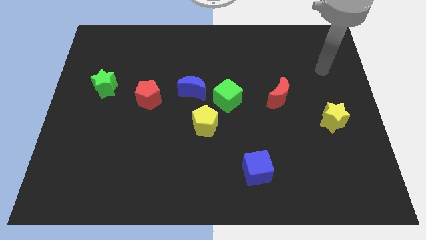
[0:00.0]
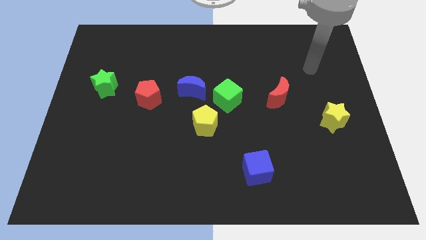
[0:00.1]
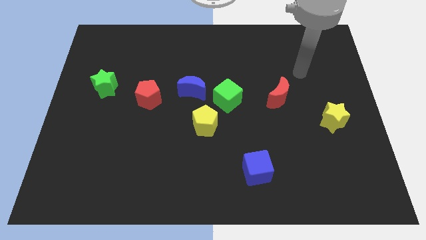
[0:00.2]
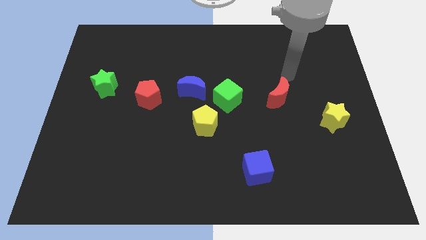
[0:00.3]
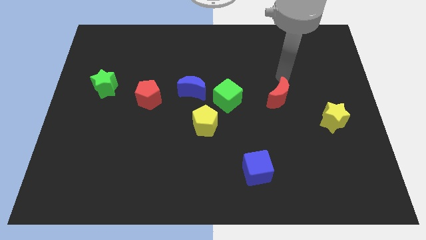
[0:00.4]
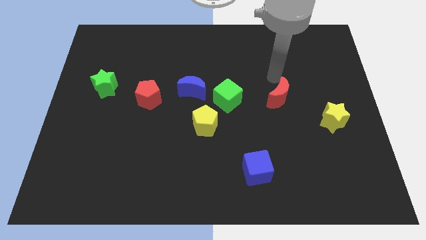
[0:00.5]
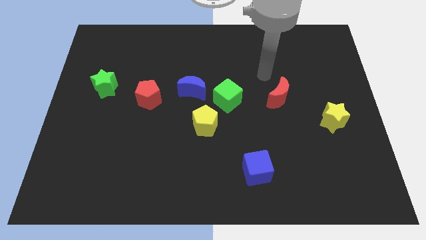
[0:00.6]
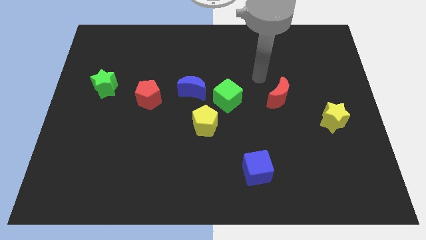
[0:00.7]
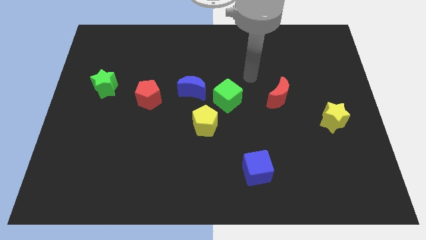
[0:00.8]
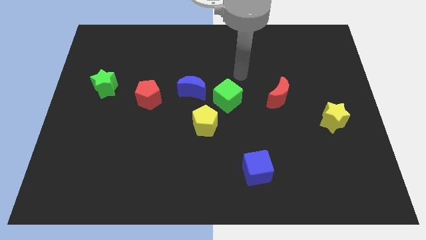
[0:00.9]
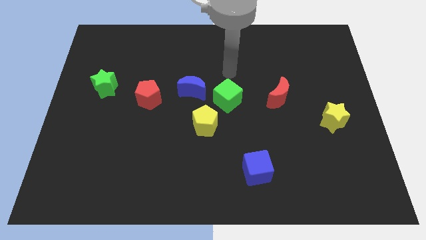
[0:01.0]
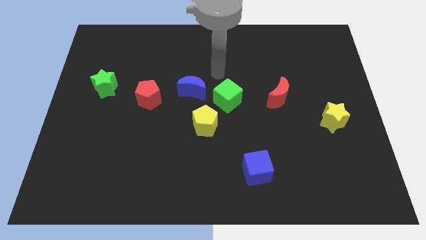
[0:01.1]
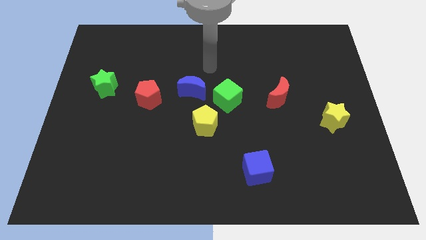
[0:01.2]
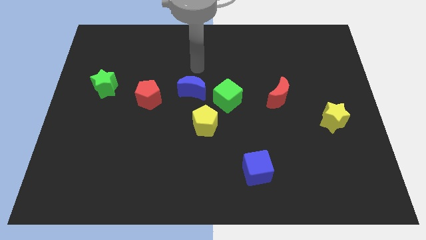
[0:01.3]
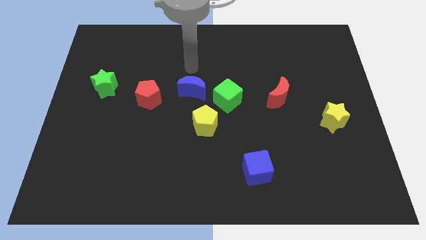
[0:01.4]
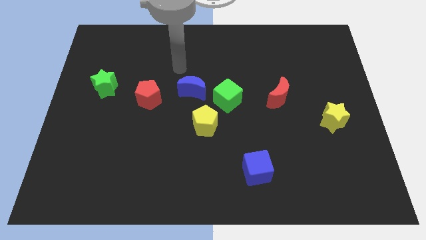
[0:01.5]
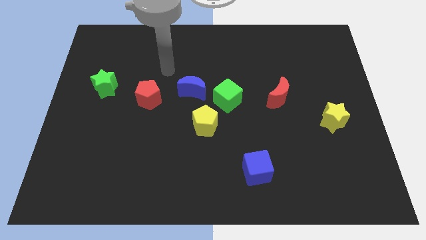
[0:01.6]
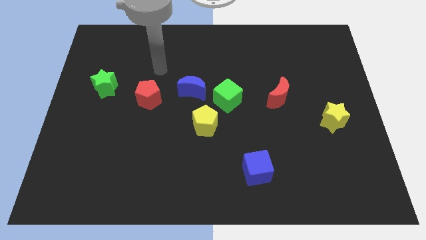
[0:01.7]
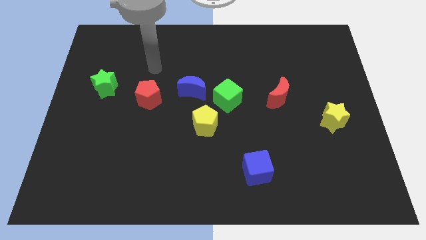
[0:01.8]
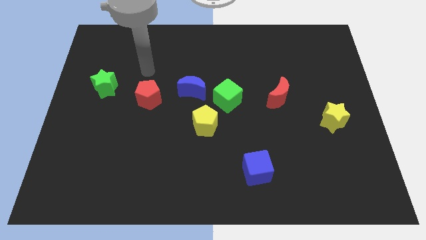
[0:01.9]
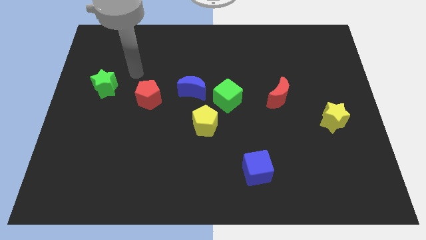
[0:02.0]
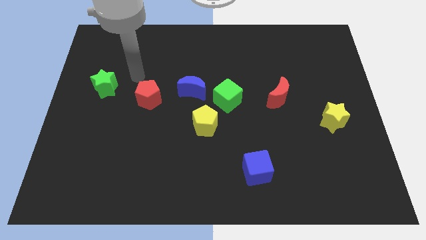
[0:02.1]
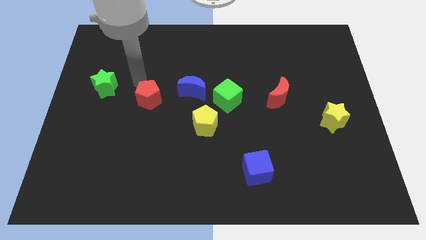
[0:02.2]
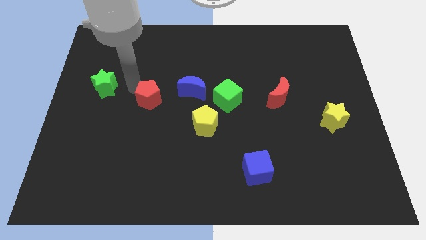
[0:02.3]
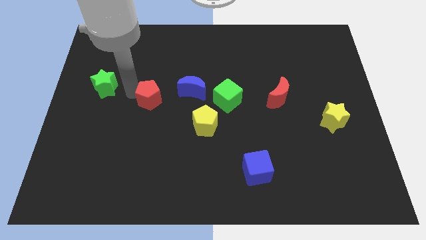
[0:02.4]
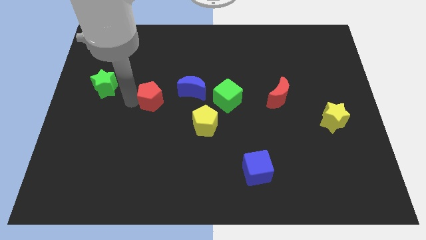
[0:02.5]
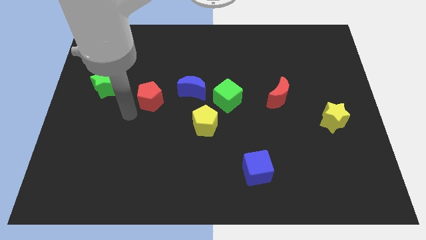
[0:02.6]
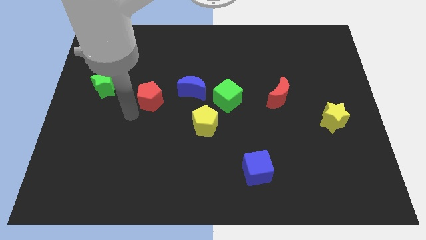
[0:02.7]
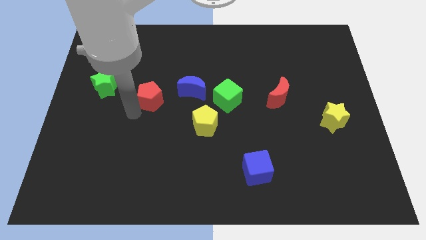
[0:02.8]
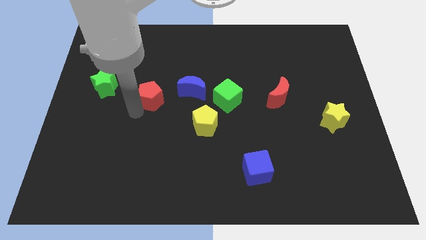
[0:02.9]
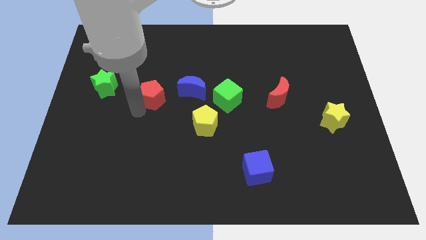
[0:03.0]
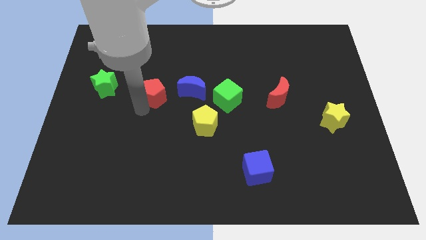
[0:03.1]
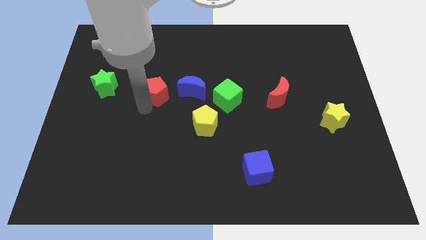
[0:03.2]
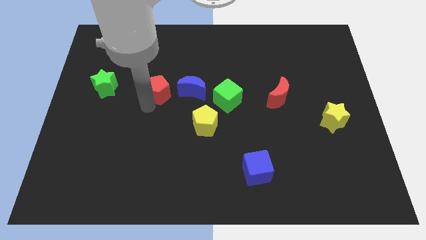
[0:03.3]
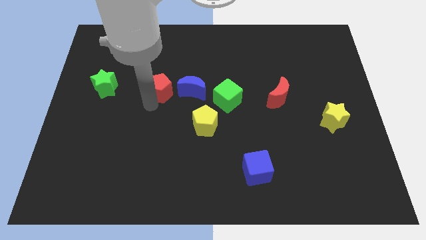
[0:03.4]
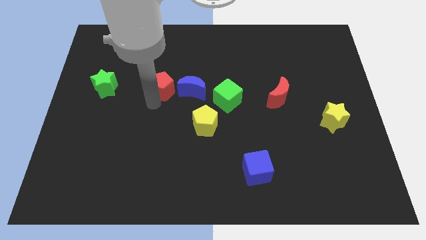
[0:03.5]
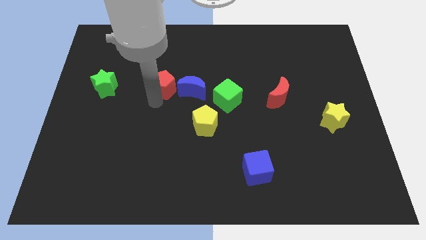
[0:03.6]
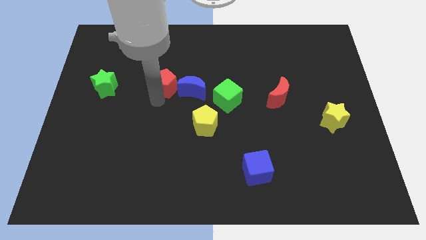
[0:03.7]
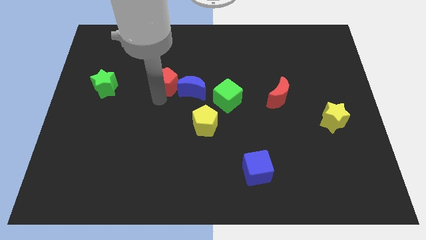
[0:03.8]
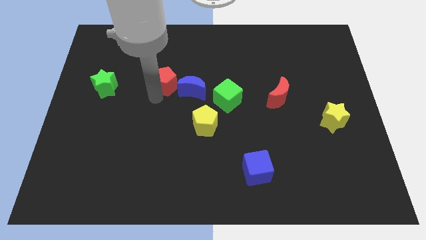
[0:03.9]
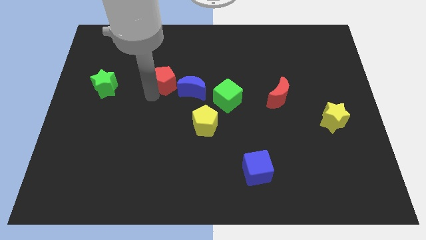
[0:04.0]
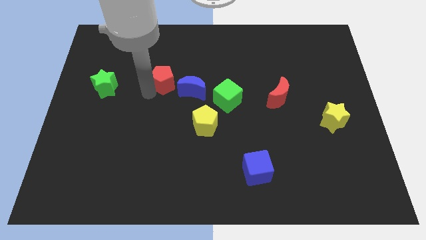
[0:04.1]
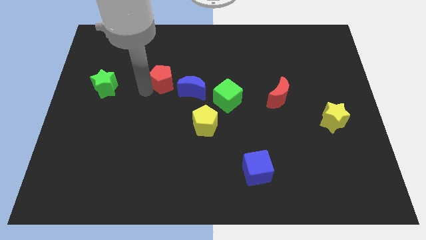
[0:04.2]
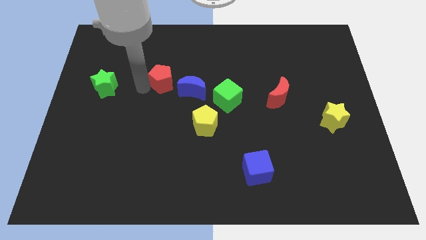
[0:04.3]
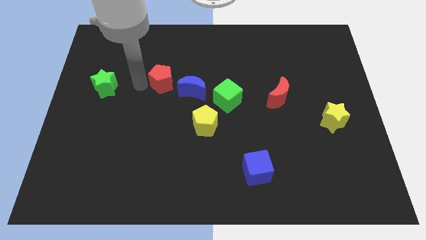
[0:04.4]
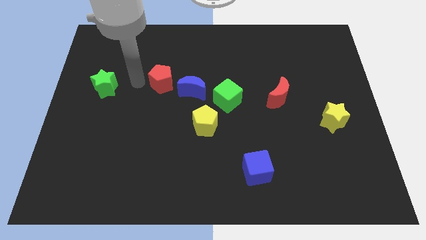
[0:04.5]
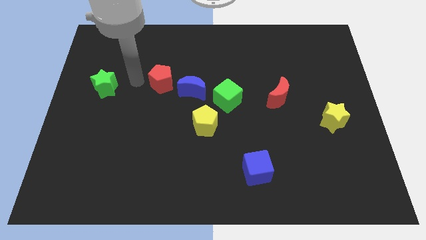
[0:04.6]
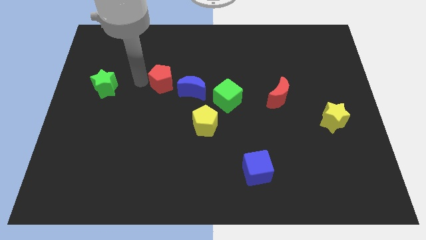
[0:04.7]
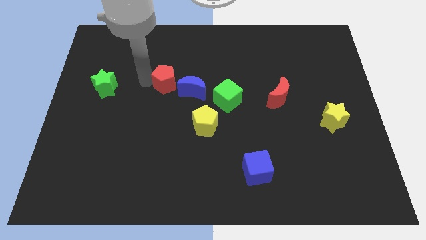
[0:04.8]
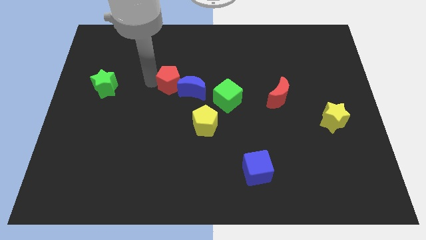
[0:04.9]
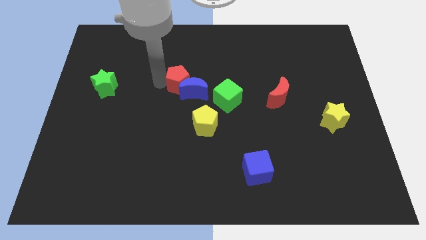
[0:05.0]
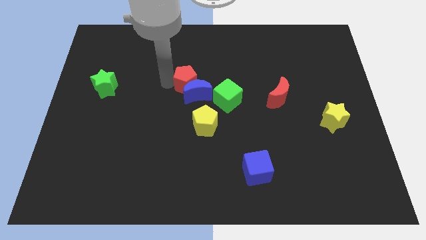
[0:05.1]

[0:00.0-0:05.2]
put the red pentagon diagonally up and to the left of the green cube

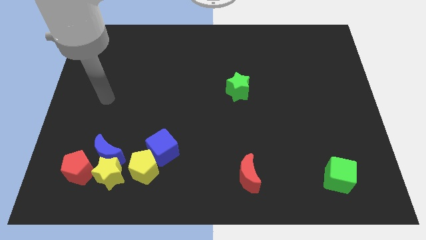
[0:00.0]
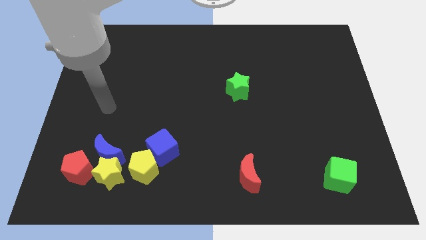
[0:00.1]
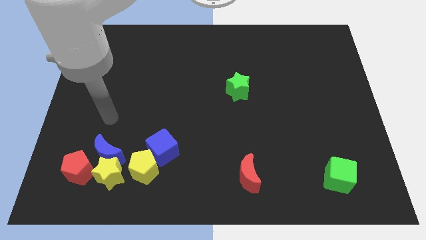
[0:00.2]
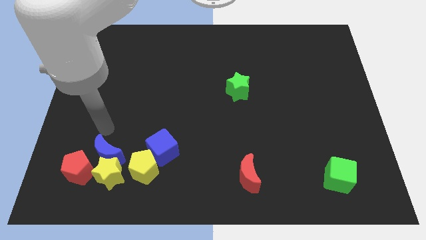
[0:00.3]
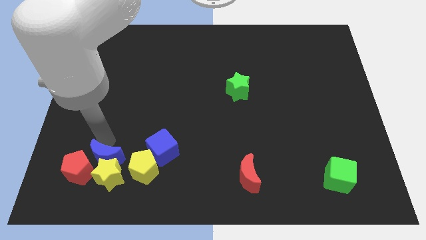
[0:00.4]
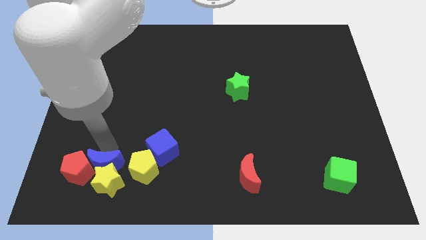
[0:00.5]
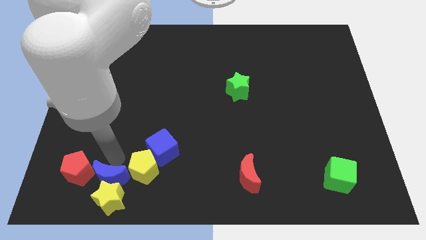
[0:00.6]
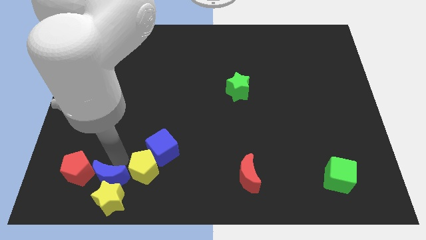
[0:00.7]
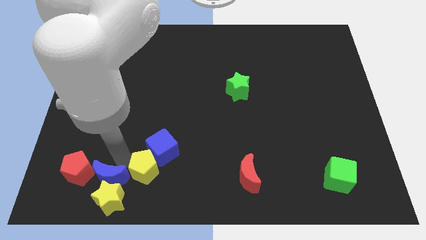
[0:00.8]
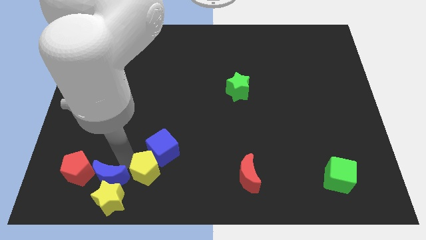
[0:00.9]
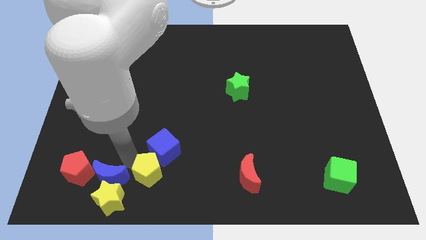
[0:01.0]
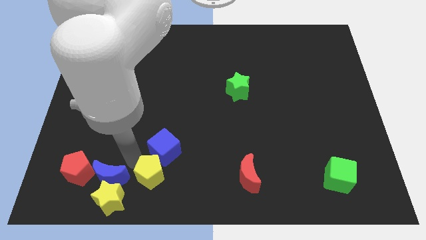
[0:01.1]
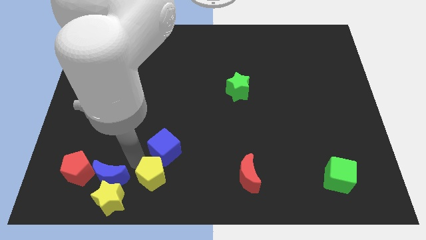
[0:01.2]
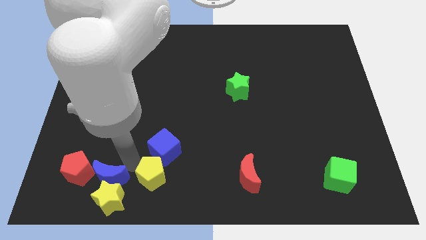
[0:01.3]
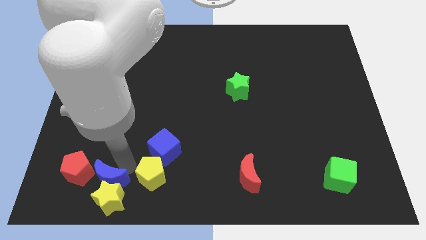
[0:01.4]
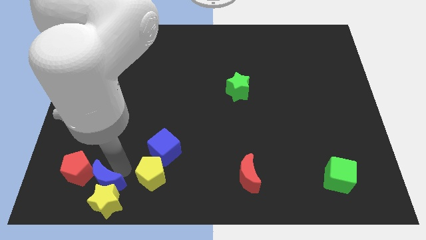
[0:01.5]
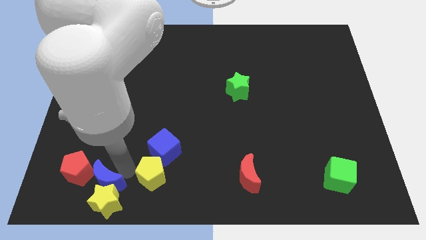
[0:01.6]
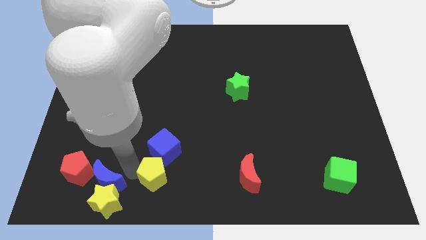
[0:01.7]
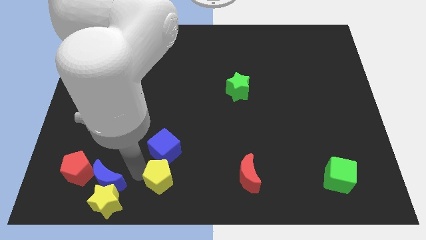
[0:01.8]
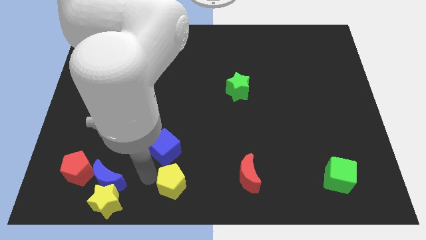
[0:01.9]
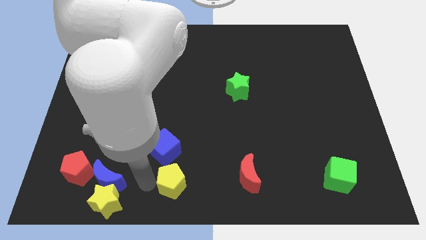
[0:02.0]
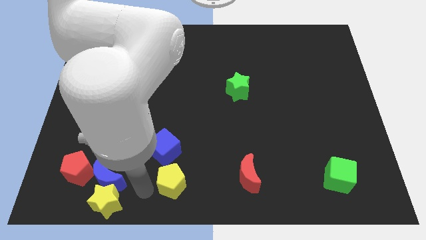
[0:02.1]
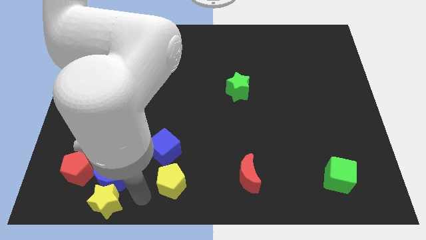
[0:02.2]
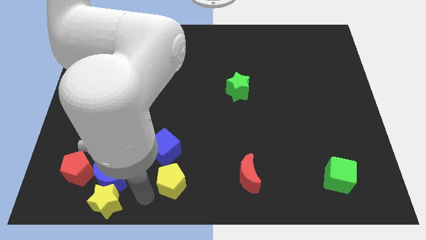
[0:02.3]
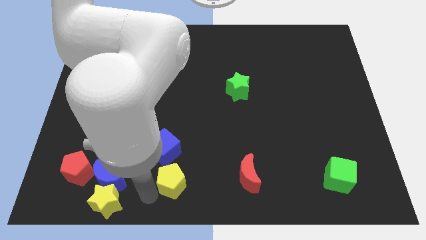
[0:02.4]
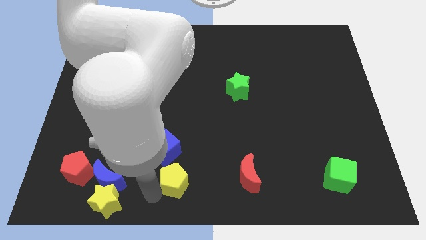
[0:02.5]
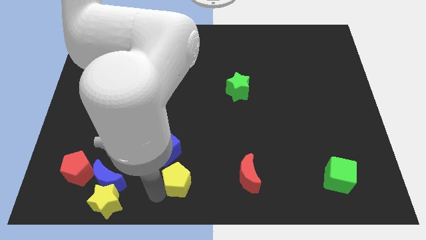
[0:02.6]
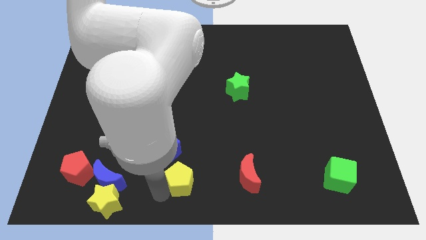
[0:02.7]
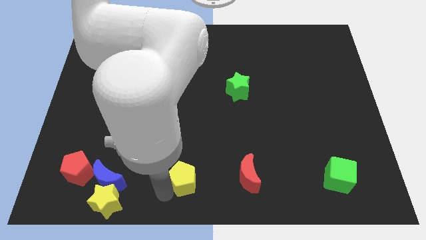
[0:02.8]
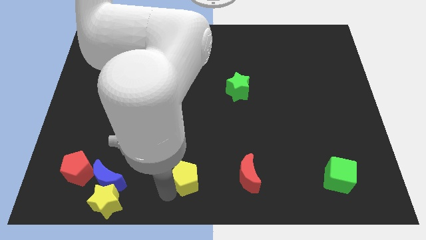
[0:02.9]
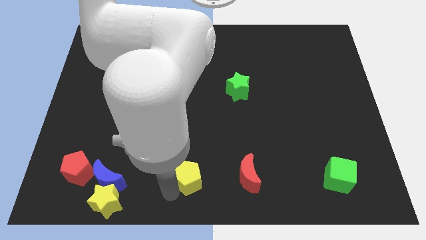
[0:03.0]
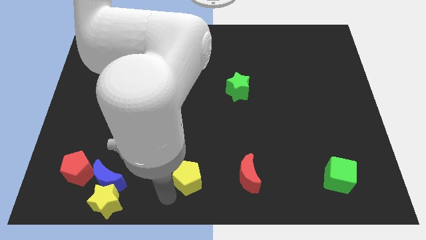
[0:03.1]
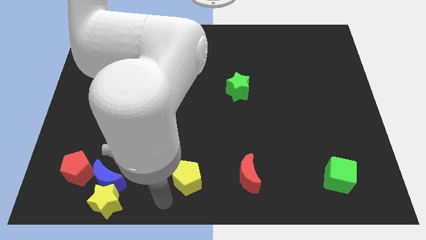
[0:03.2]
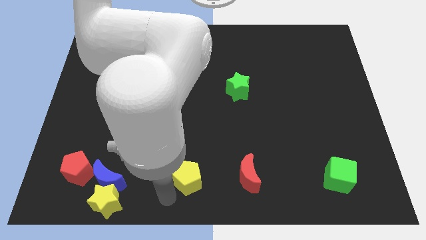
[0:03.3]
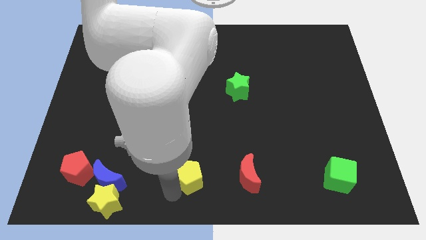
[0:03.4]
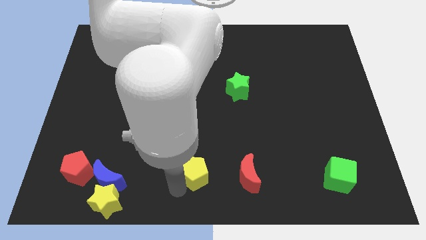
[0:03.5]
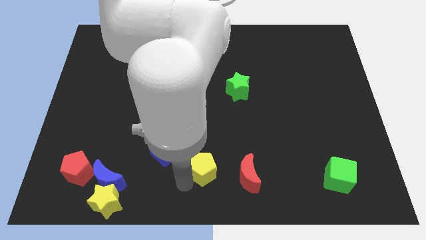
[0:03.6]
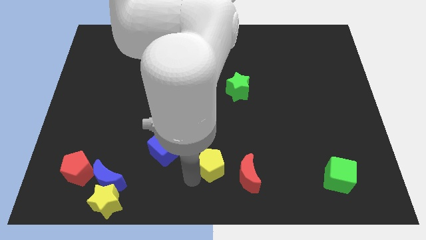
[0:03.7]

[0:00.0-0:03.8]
push the yellow pentagon to the top left of the red moon
